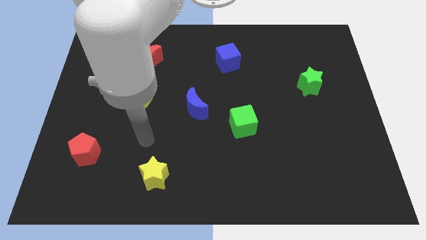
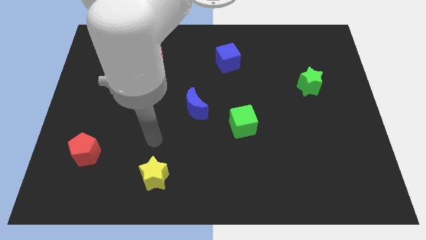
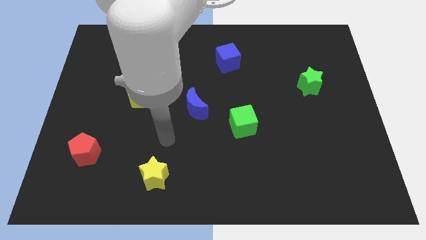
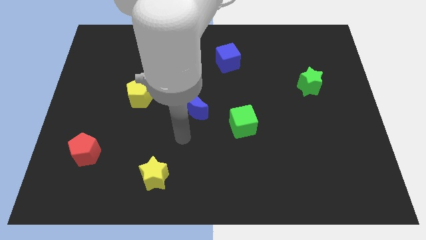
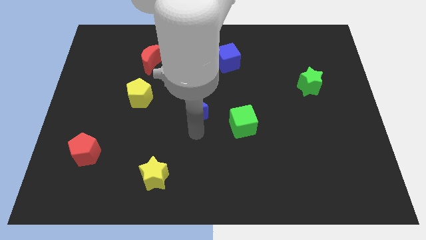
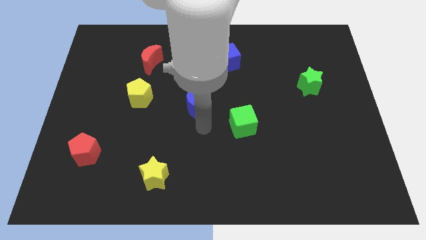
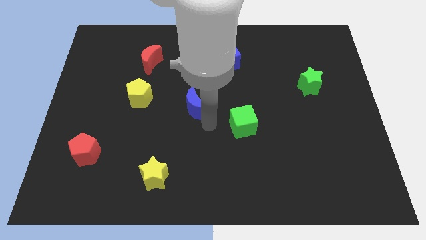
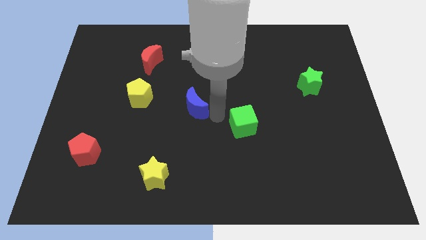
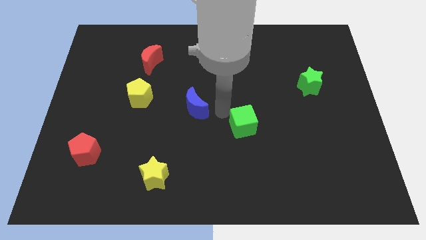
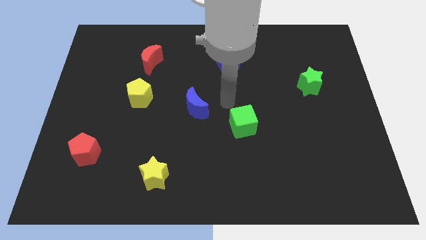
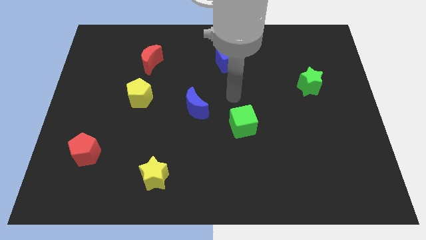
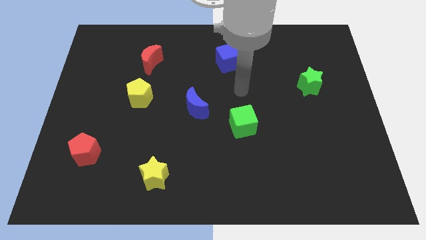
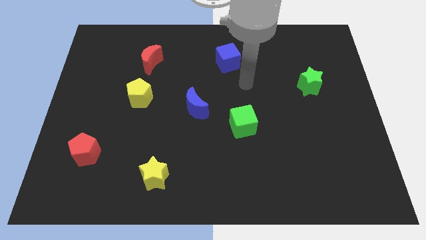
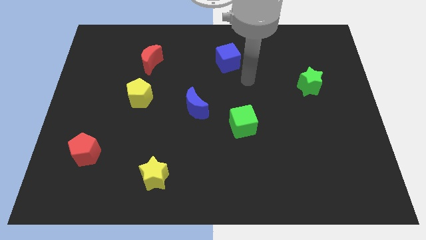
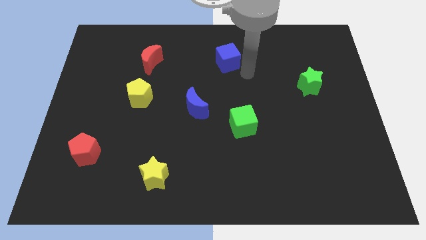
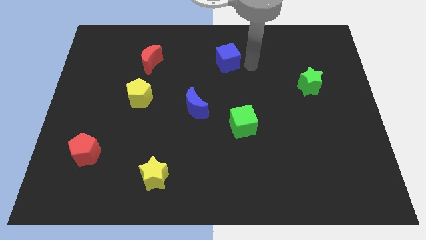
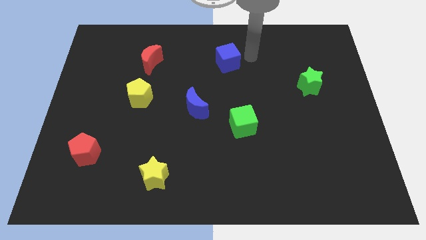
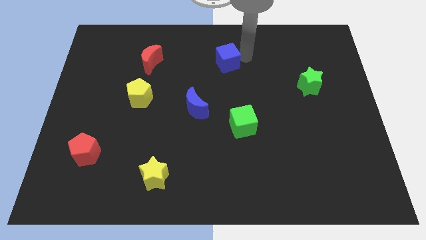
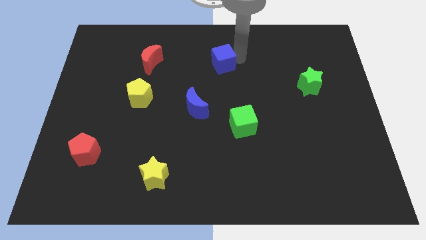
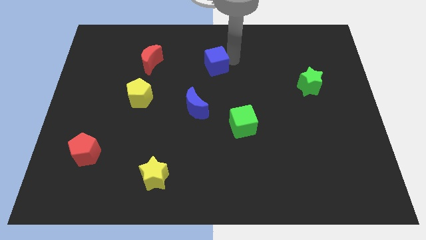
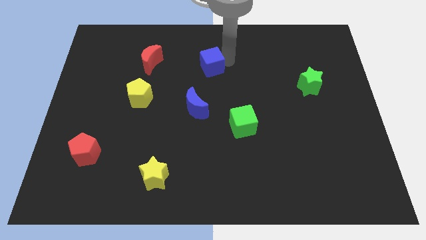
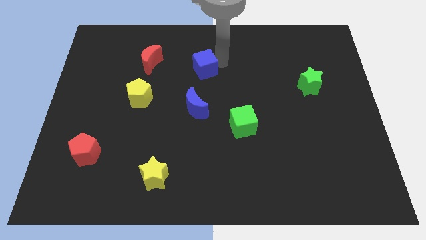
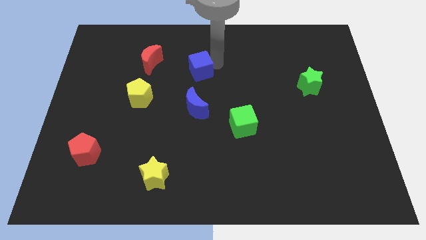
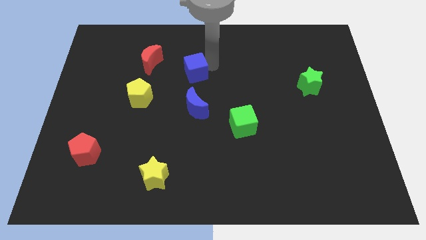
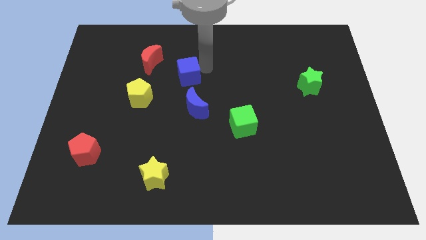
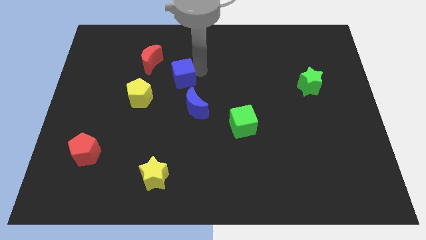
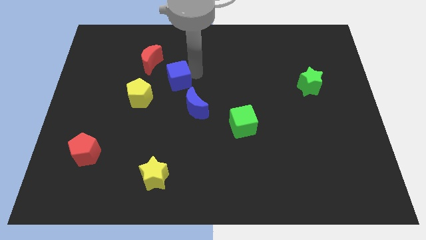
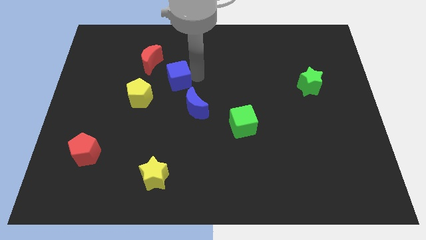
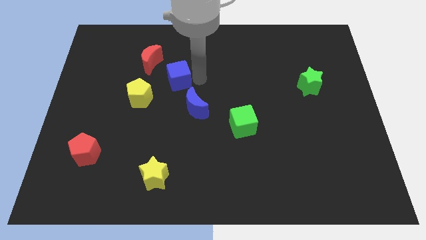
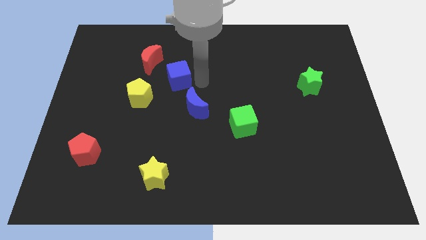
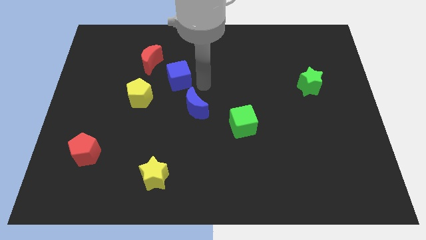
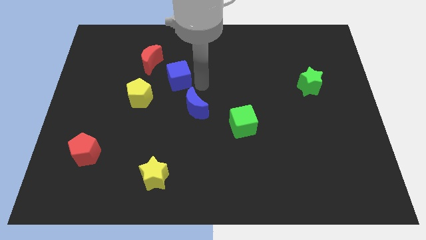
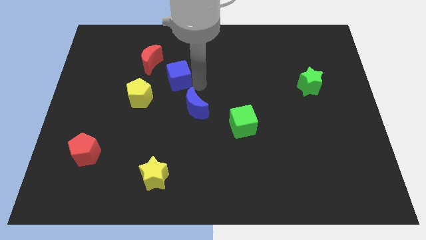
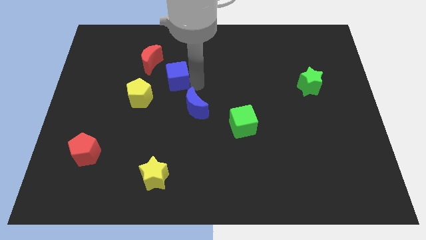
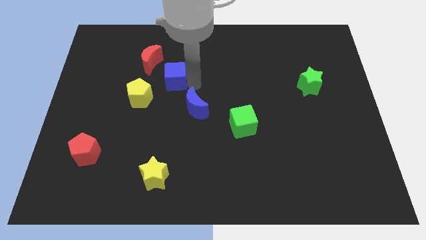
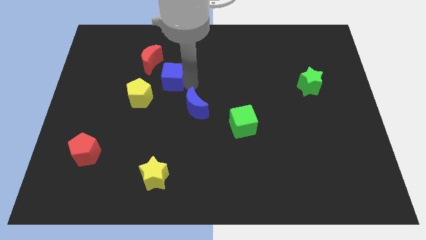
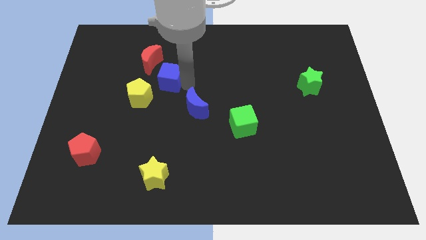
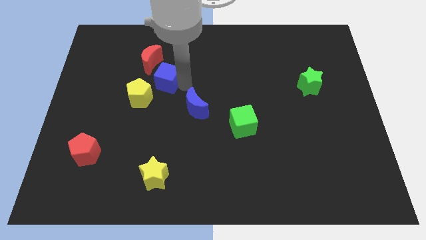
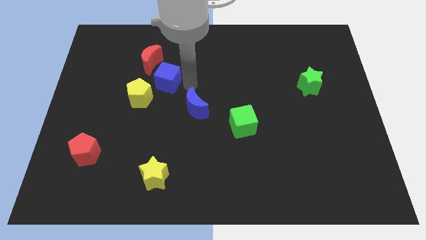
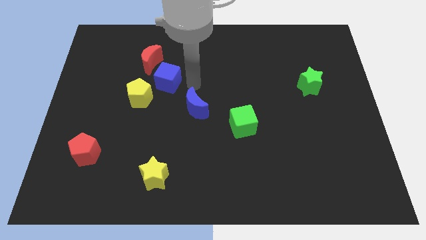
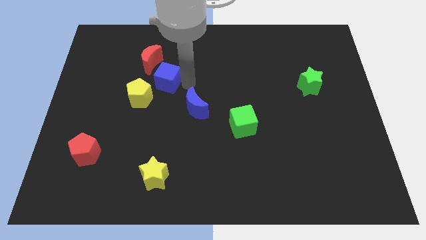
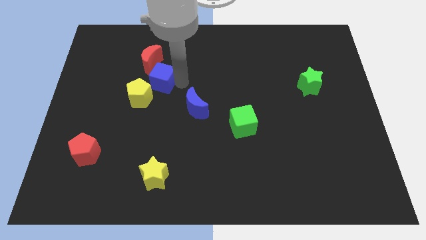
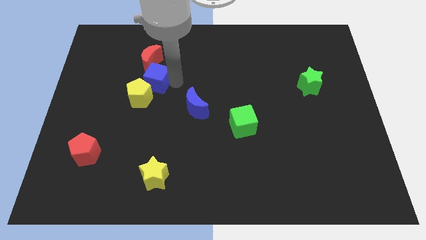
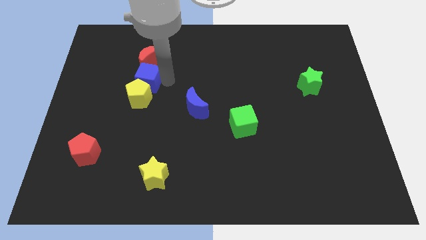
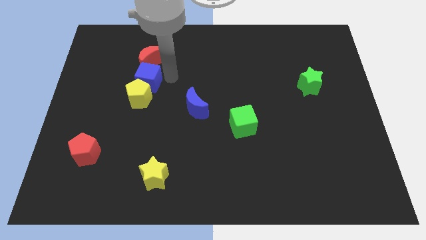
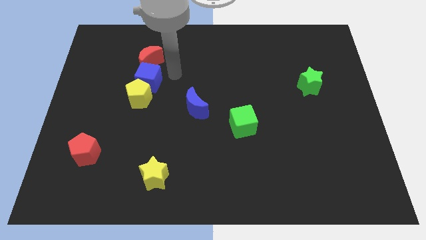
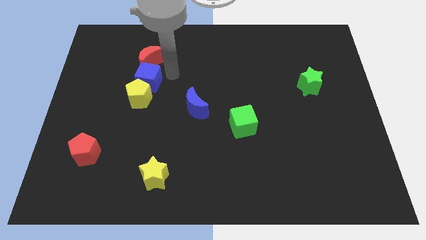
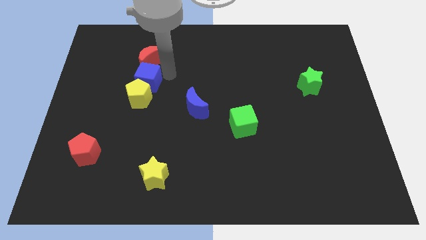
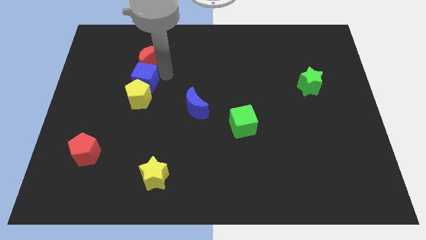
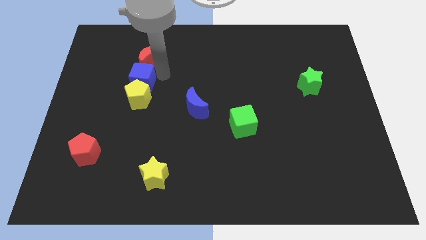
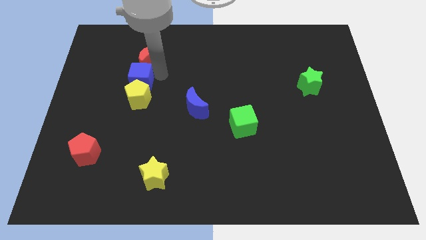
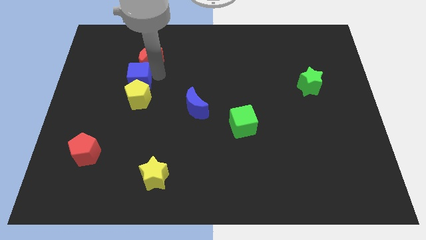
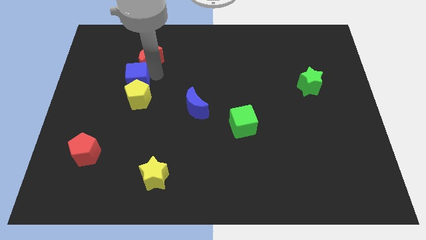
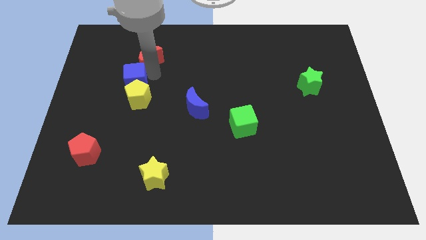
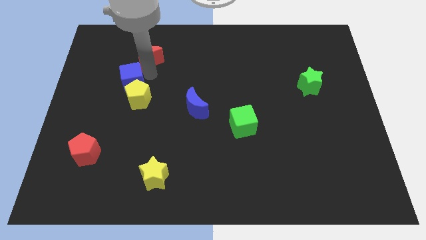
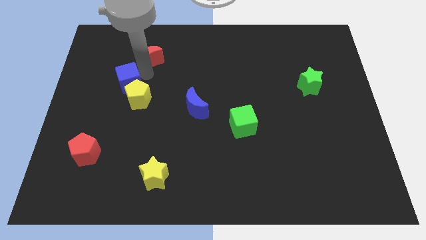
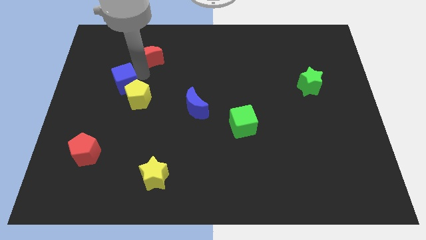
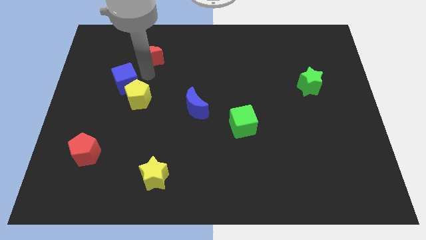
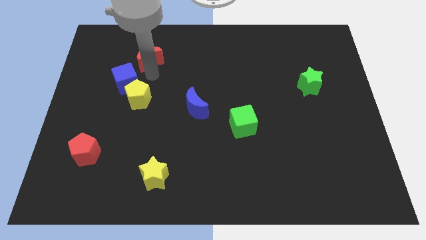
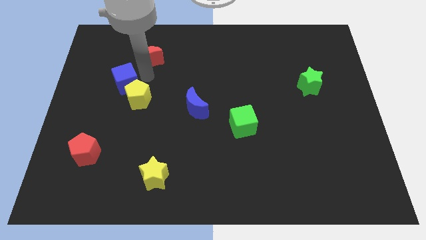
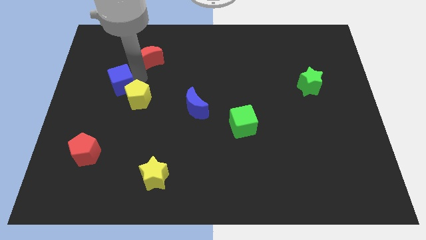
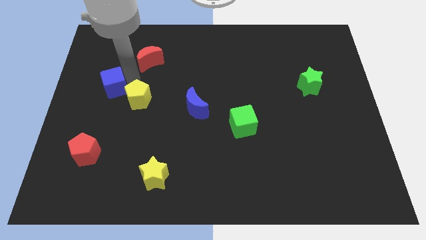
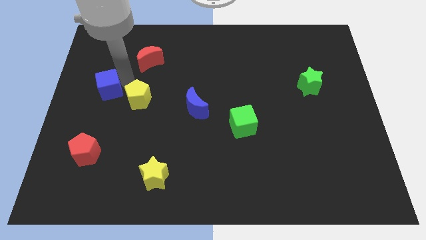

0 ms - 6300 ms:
put the blue cube to the center left

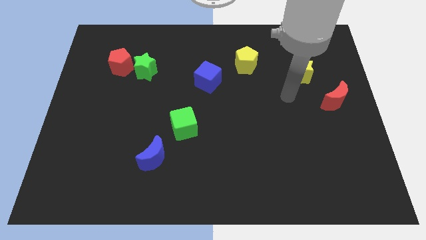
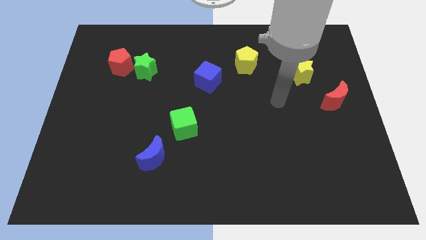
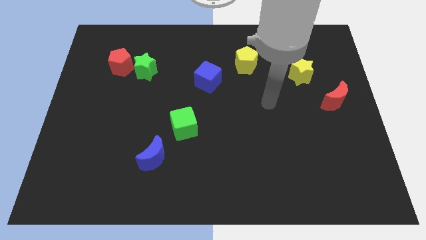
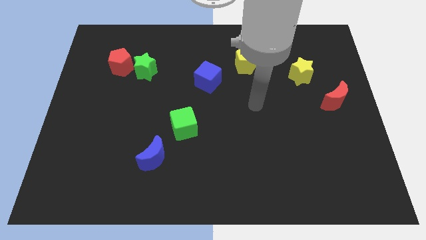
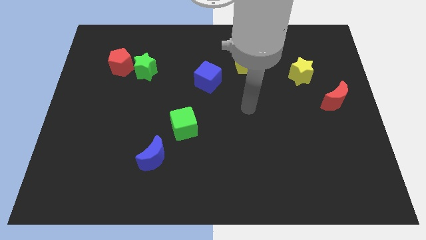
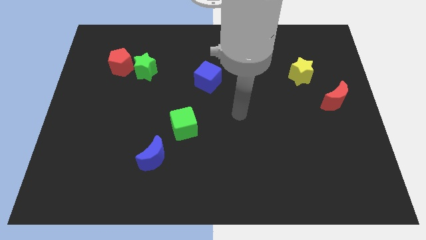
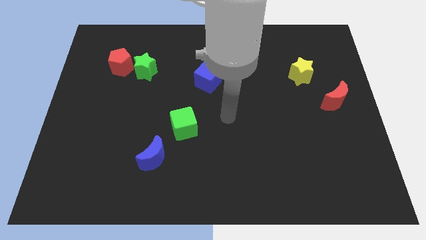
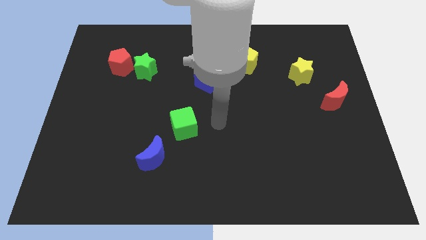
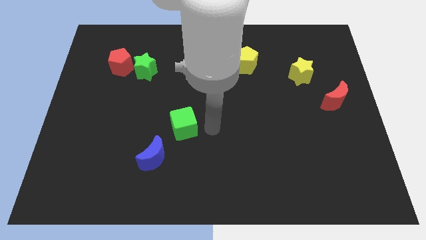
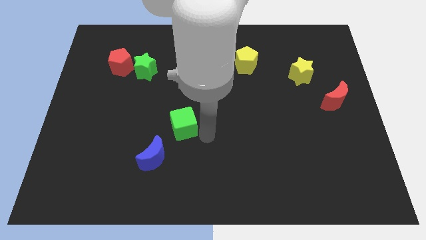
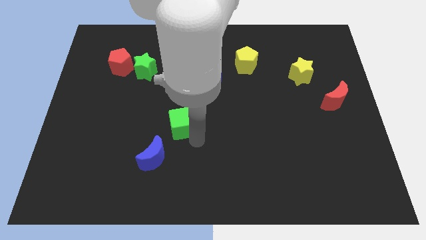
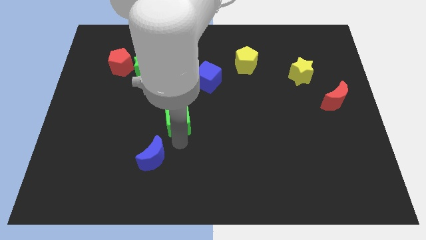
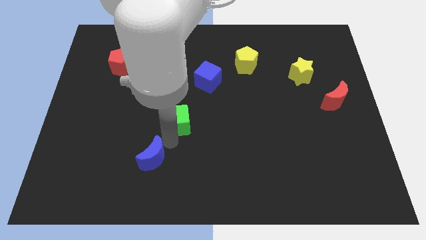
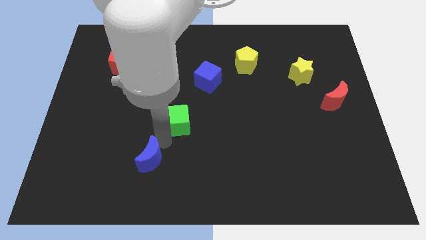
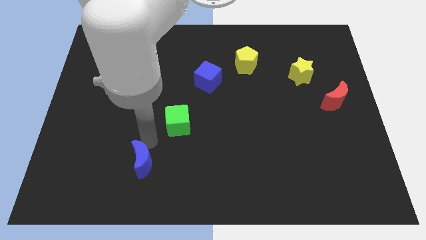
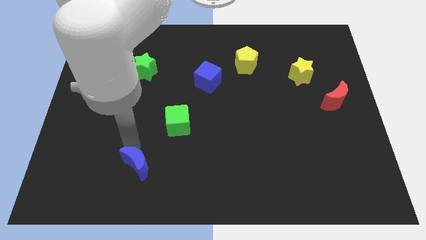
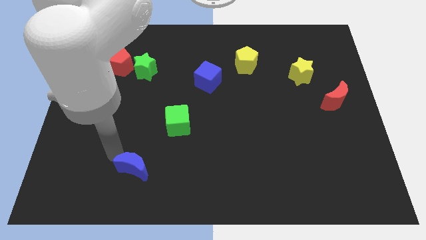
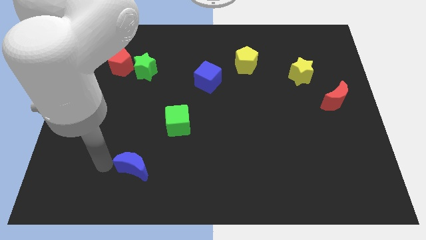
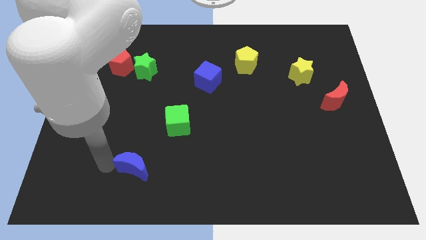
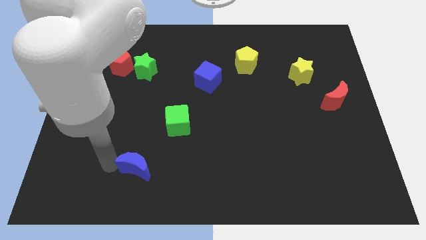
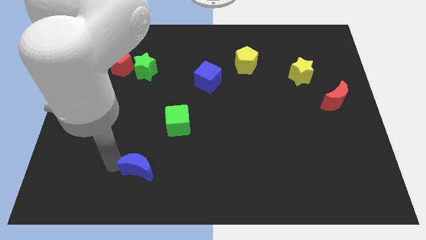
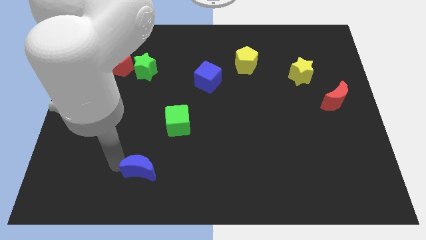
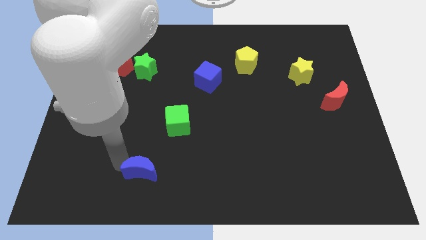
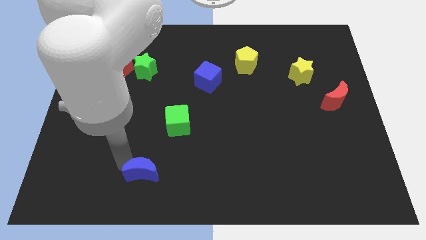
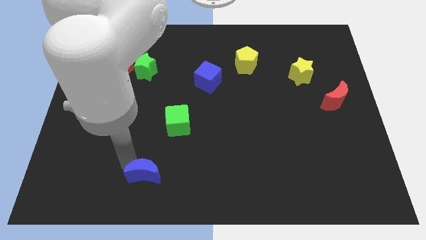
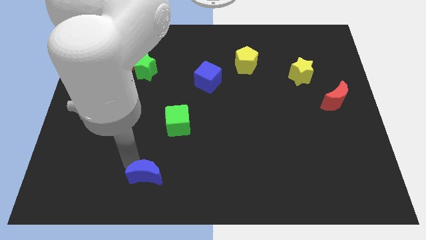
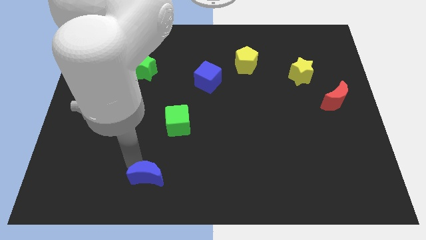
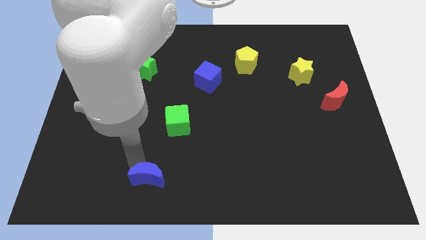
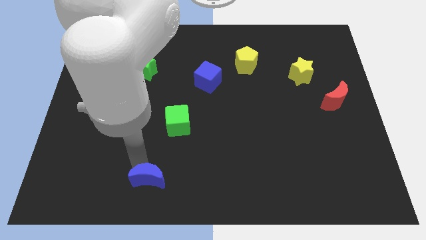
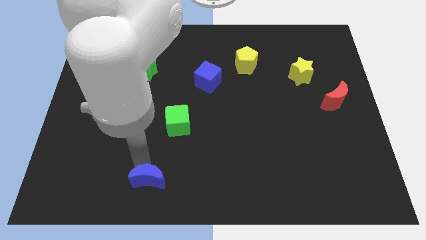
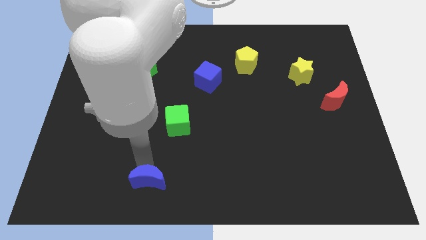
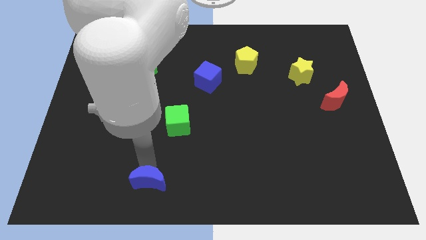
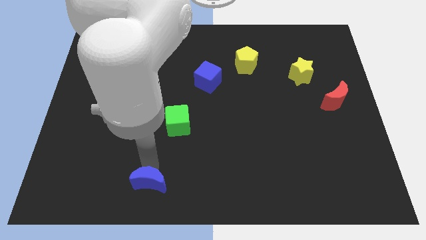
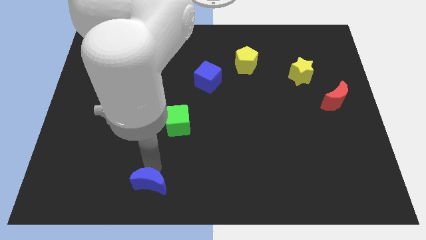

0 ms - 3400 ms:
move the blue moon to the bottom side
